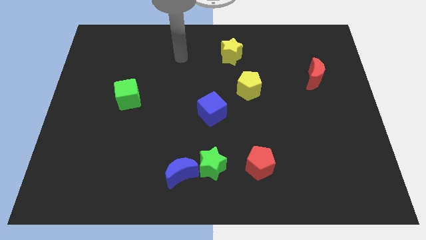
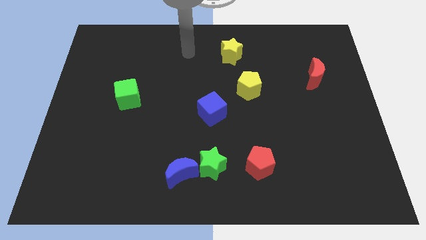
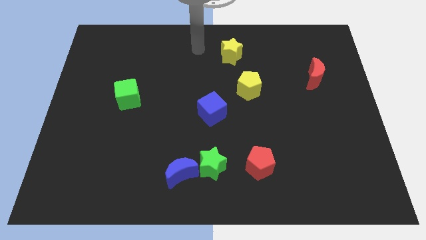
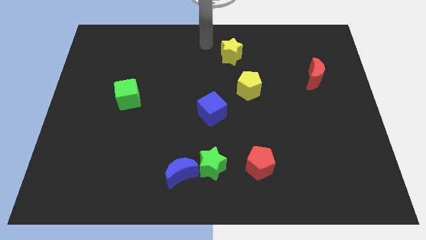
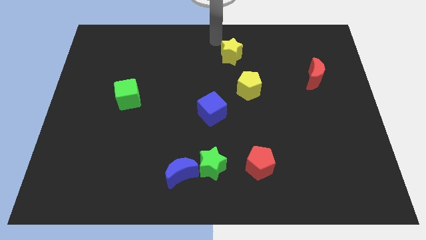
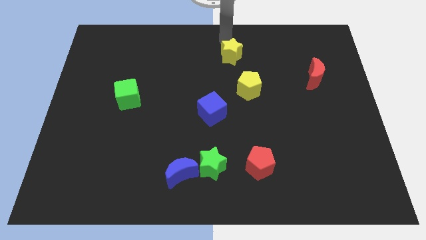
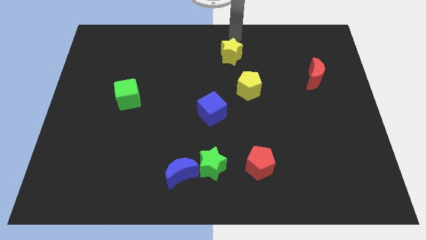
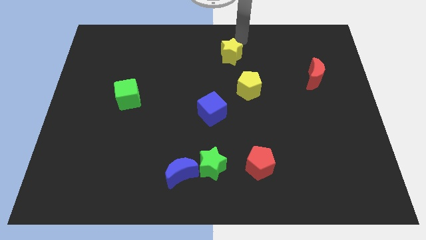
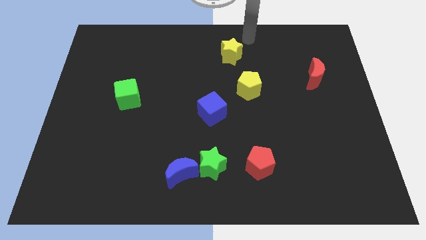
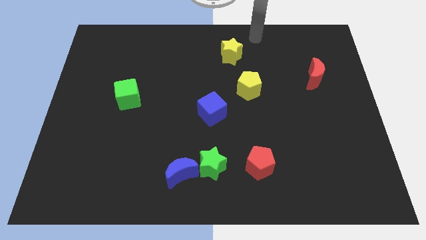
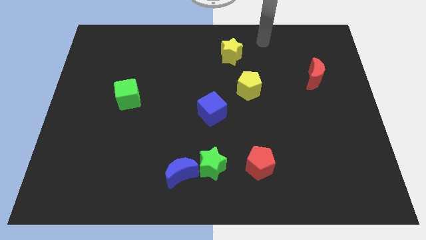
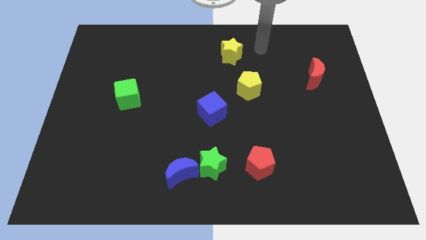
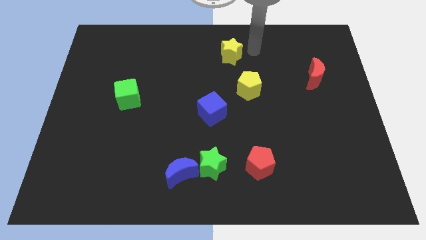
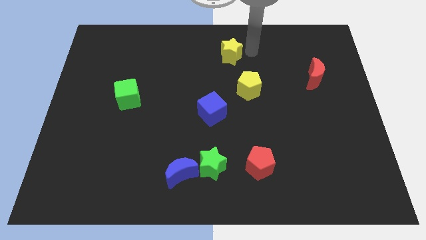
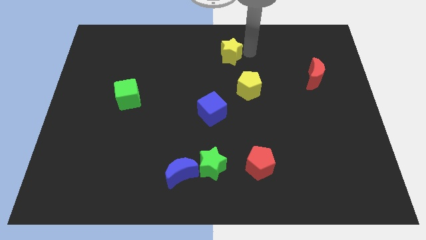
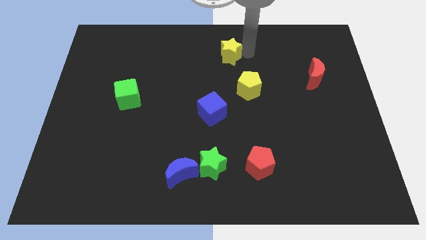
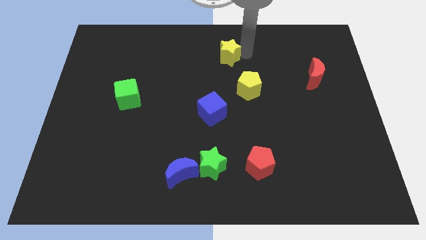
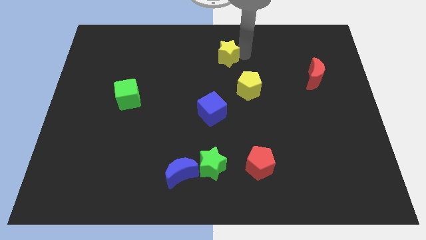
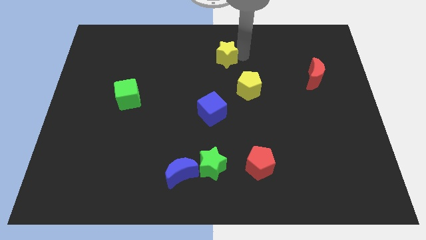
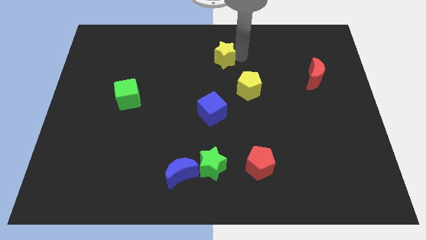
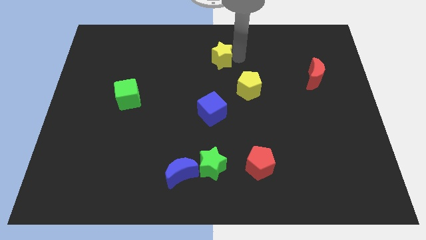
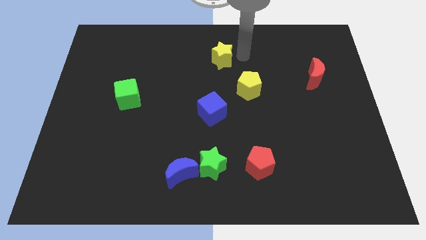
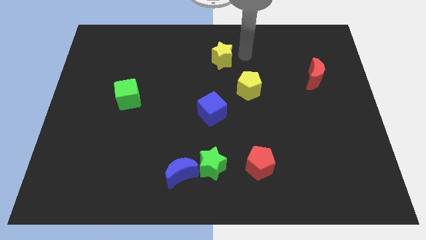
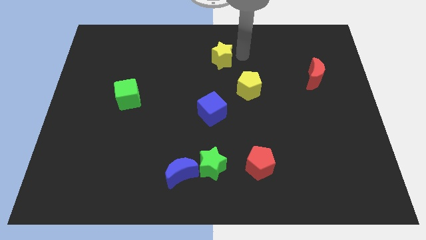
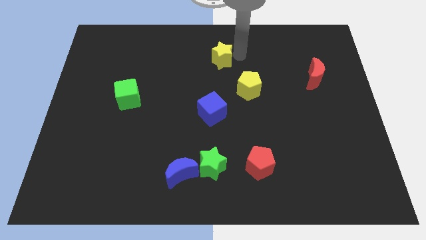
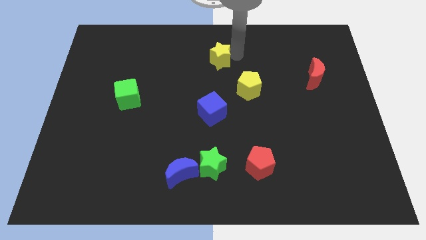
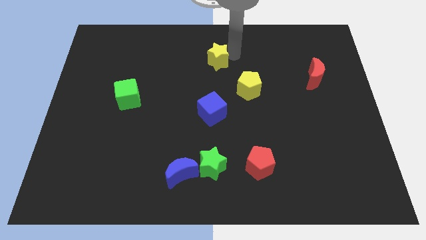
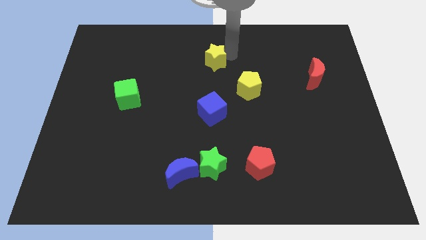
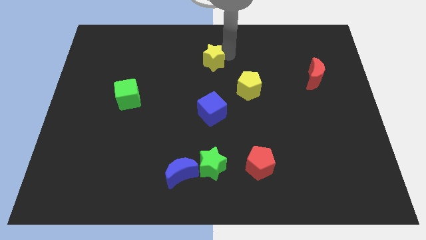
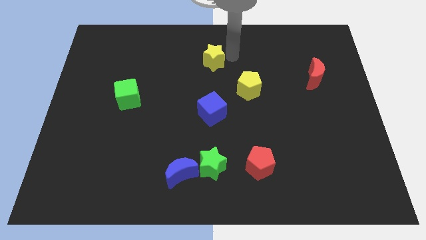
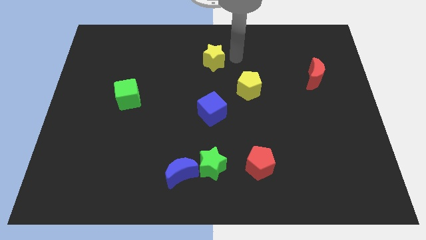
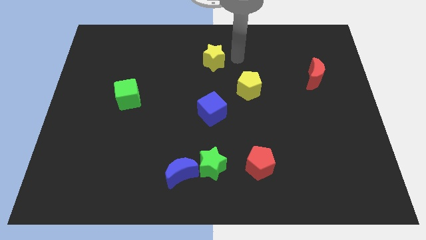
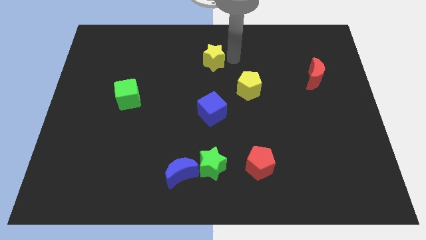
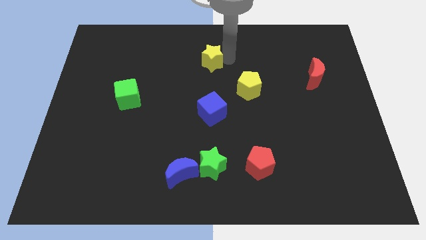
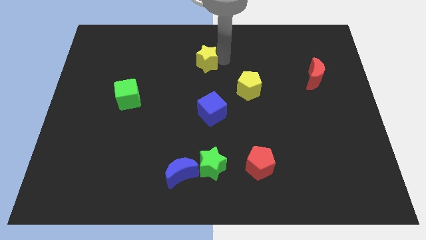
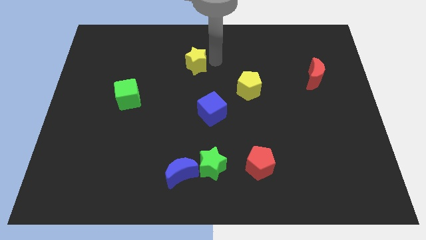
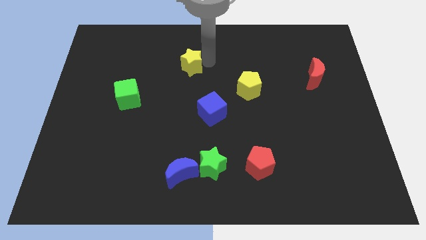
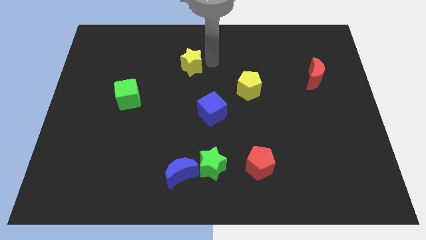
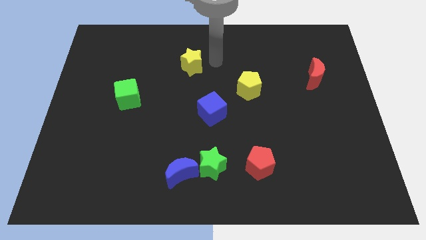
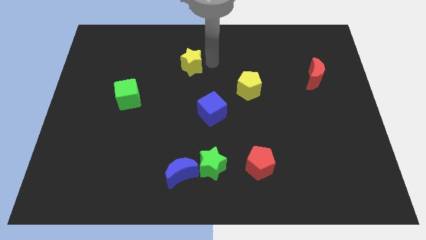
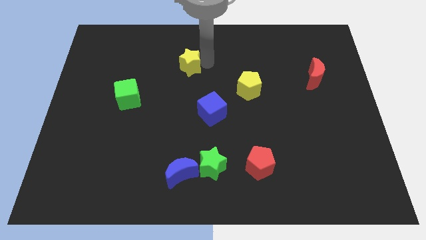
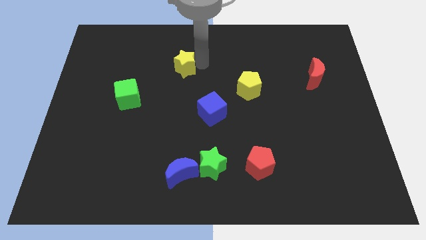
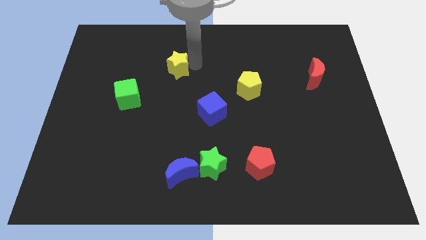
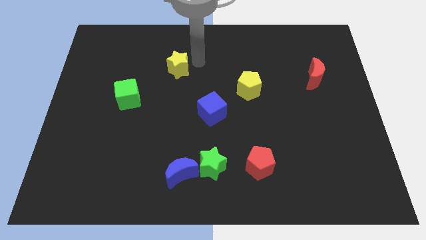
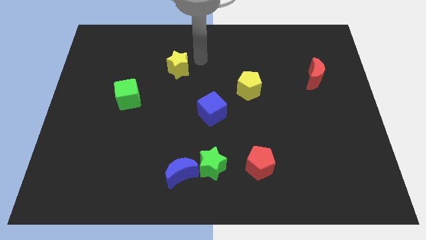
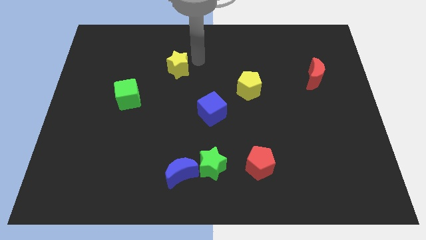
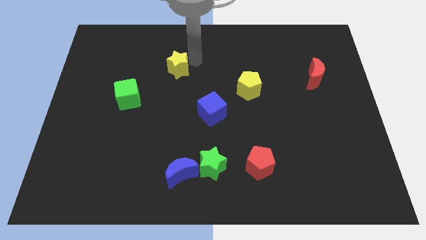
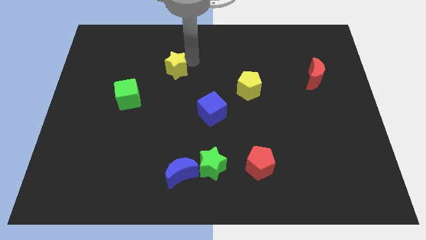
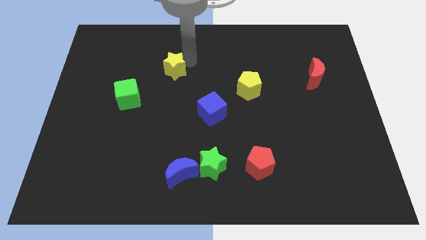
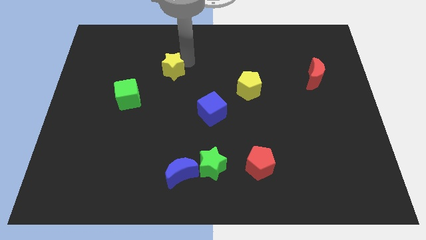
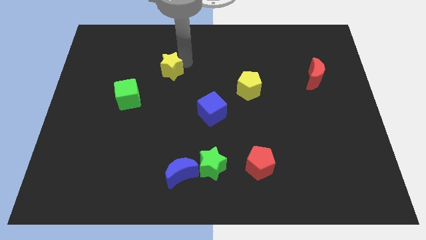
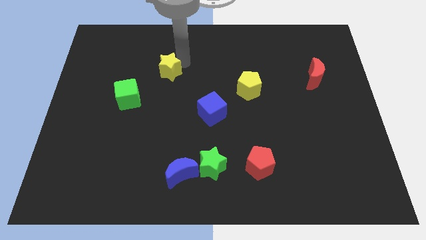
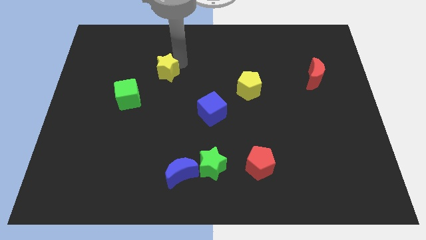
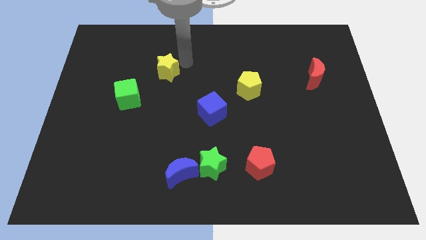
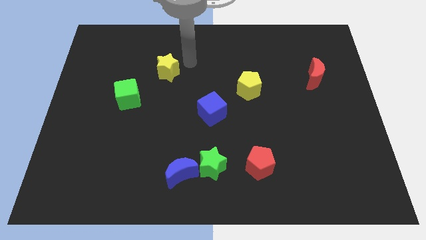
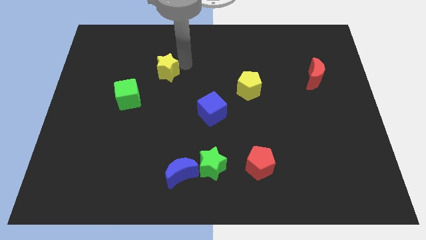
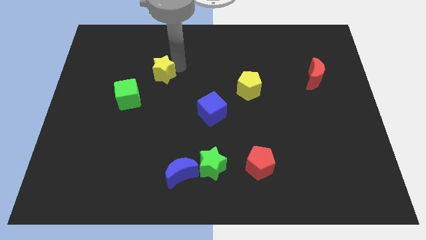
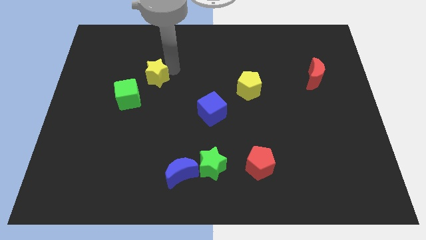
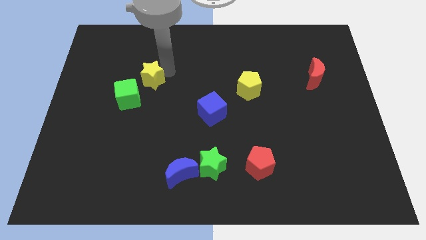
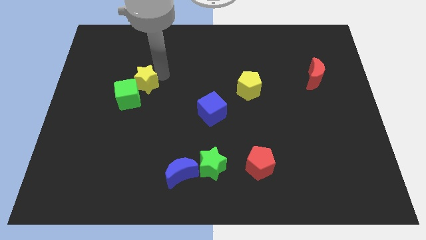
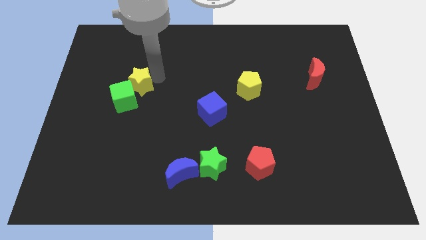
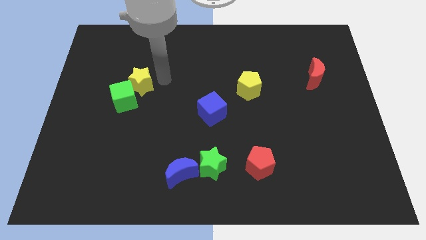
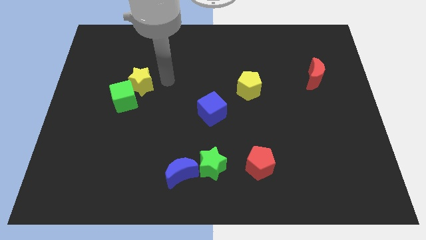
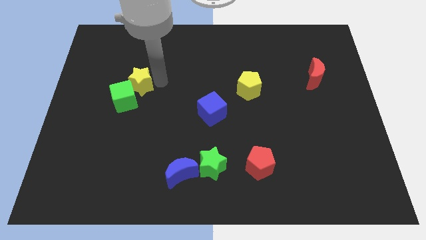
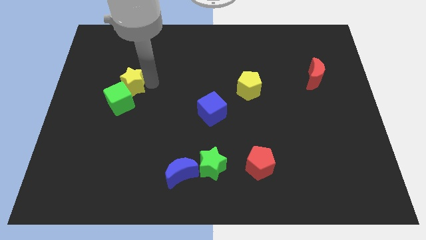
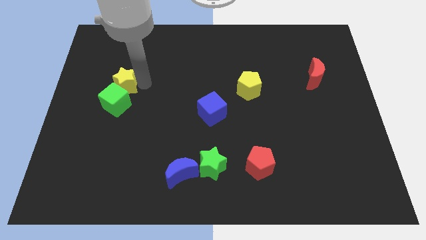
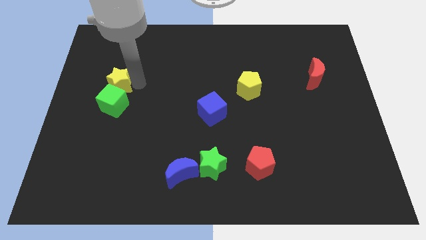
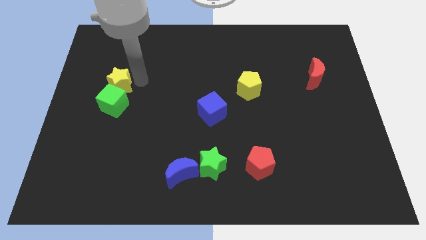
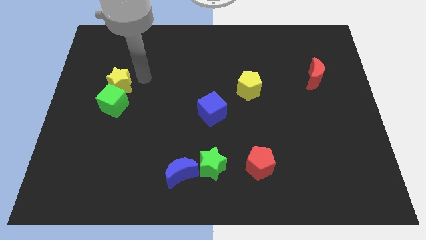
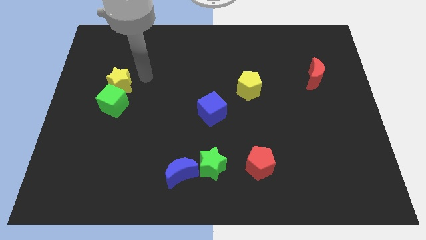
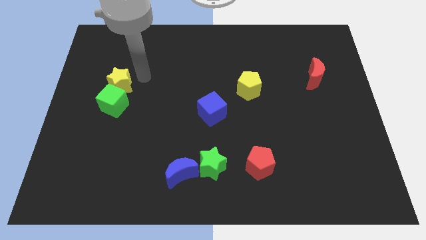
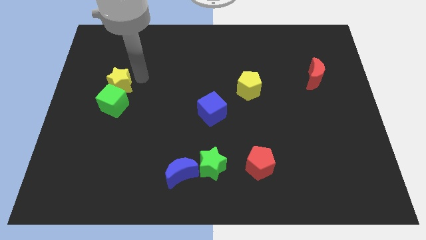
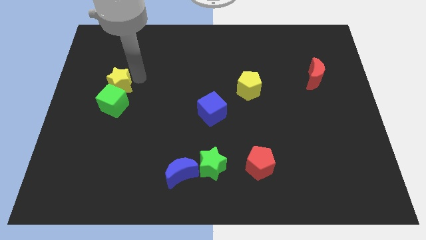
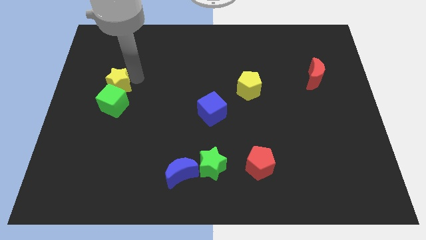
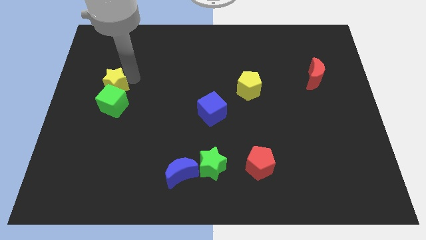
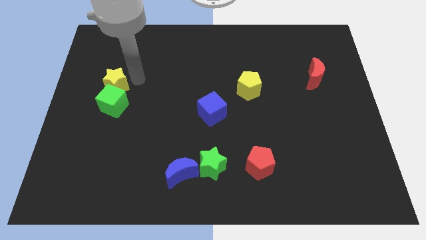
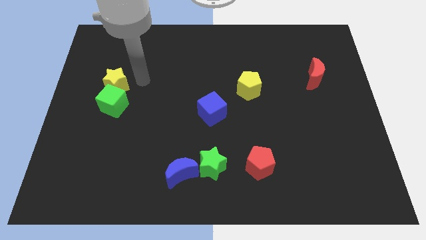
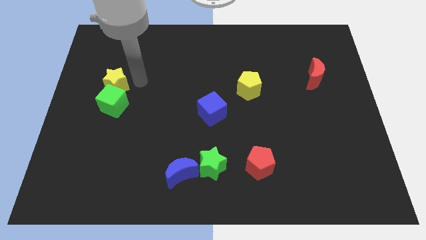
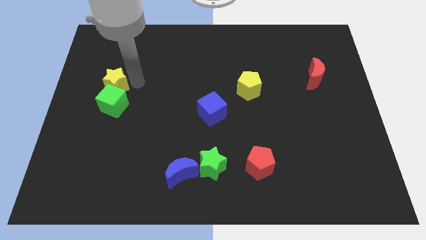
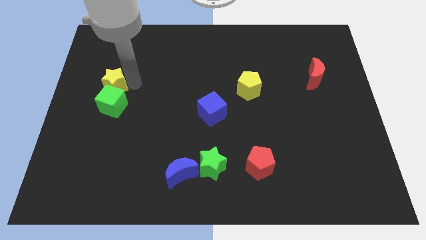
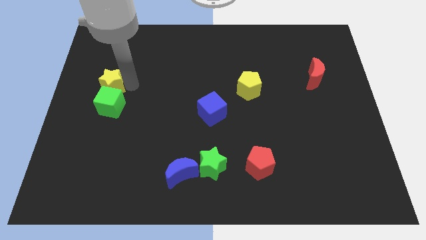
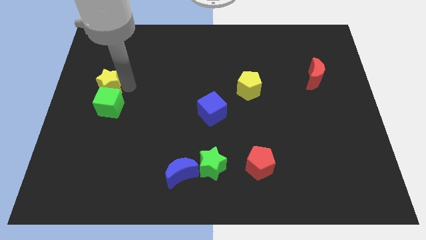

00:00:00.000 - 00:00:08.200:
slide the yellow star to the left side
